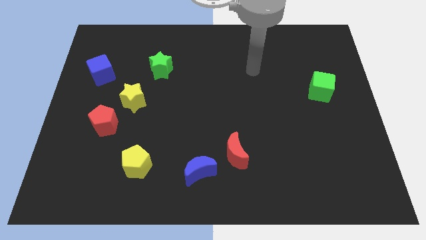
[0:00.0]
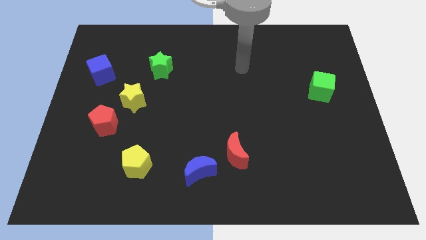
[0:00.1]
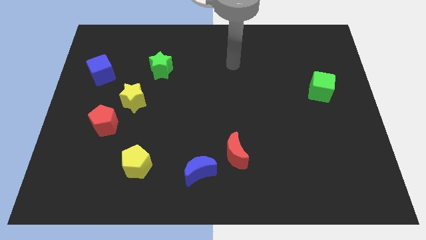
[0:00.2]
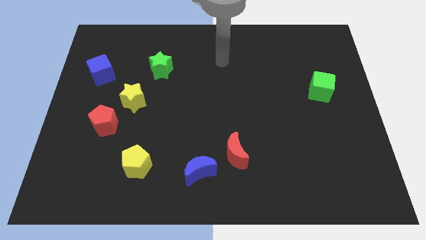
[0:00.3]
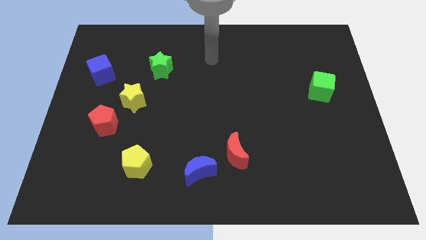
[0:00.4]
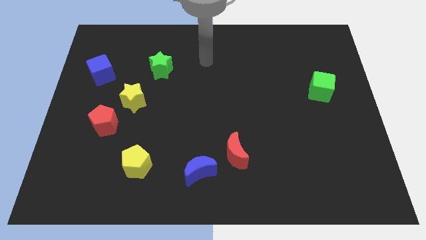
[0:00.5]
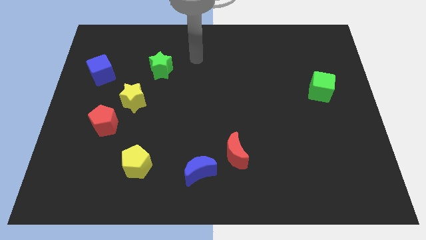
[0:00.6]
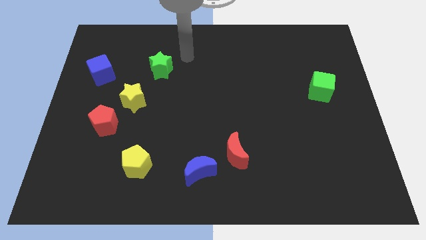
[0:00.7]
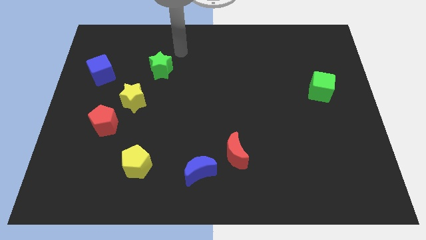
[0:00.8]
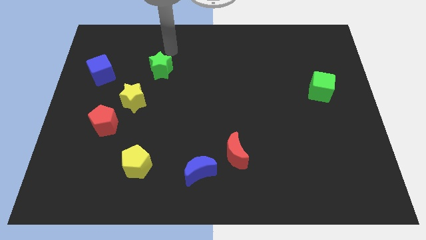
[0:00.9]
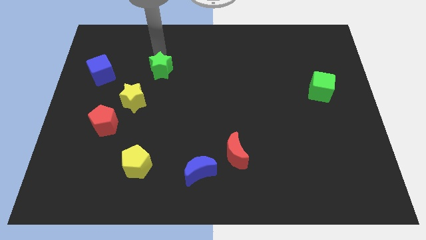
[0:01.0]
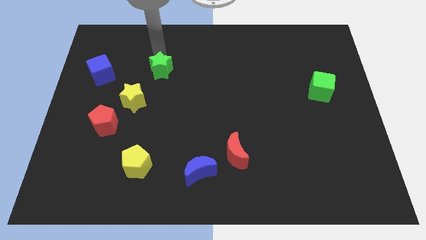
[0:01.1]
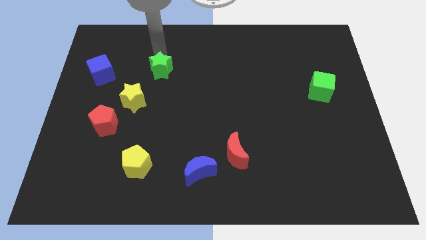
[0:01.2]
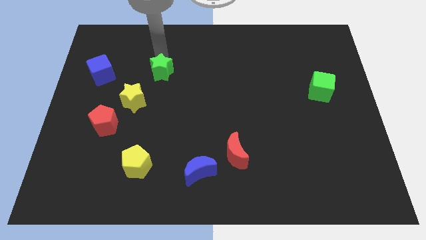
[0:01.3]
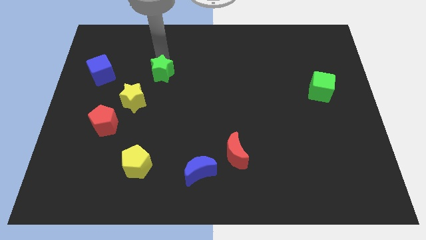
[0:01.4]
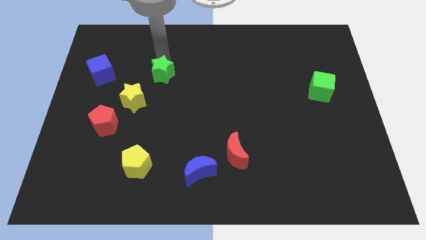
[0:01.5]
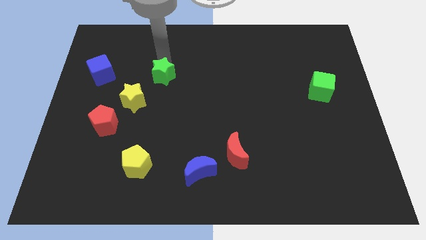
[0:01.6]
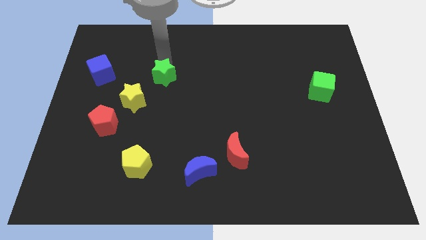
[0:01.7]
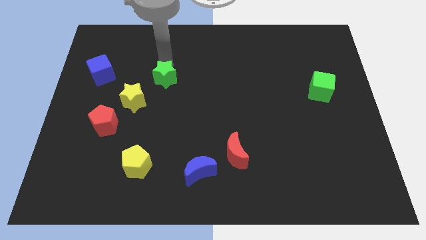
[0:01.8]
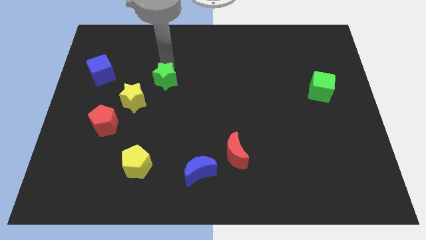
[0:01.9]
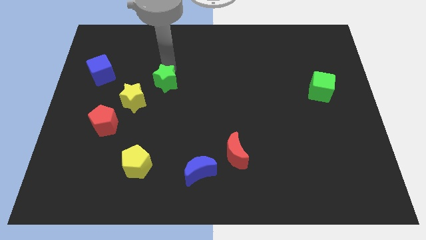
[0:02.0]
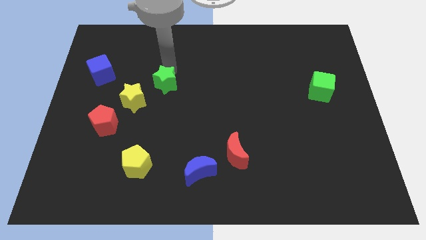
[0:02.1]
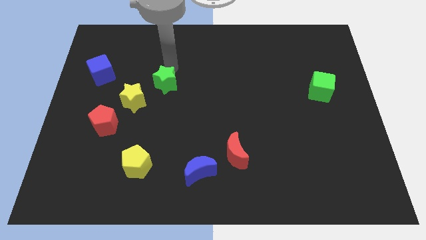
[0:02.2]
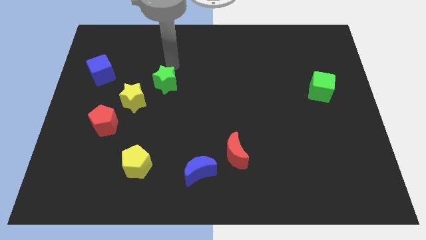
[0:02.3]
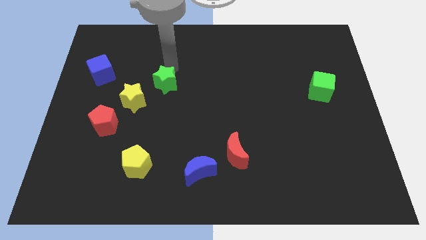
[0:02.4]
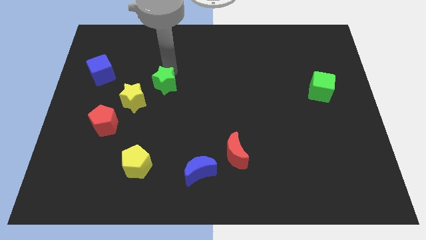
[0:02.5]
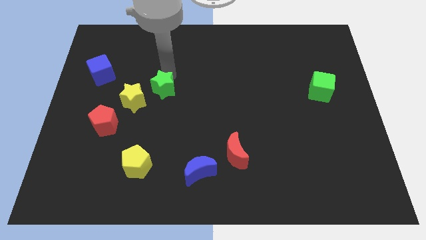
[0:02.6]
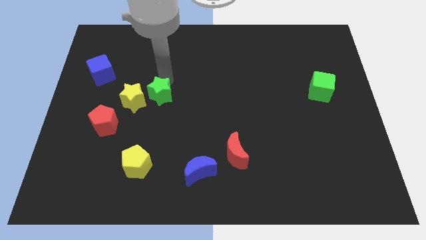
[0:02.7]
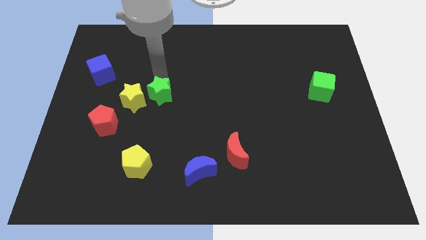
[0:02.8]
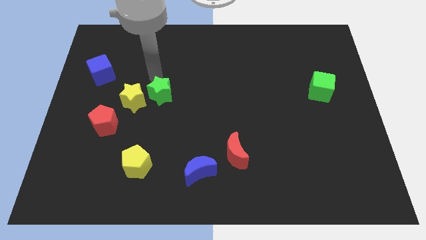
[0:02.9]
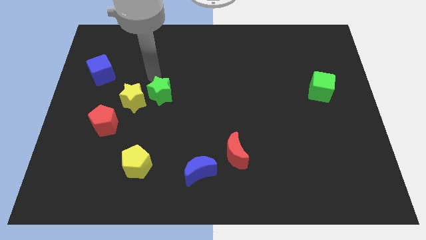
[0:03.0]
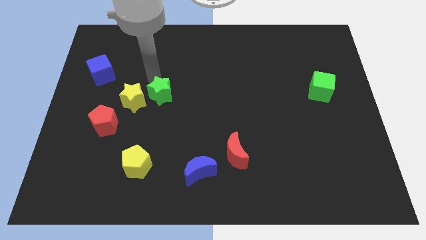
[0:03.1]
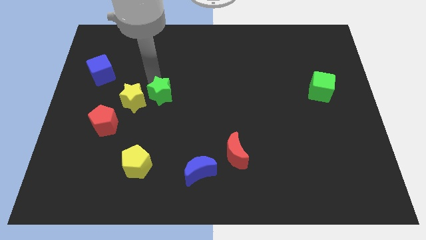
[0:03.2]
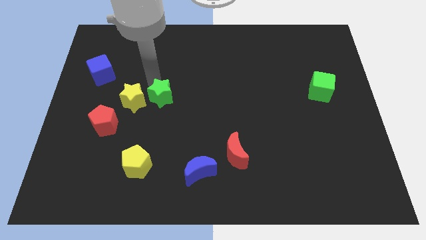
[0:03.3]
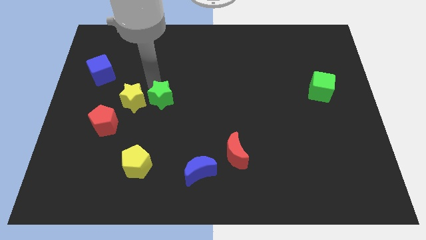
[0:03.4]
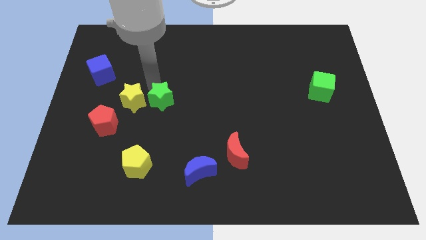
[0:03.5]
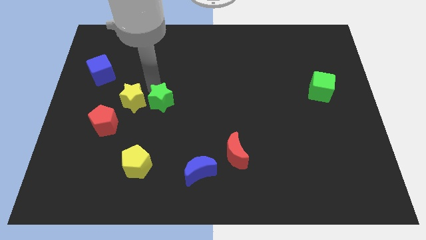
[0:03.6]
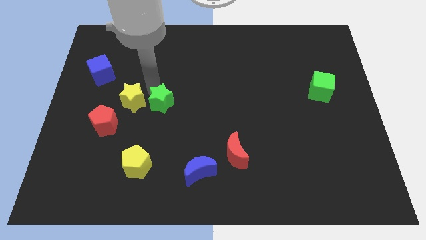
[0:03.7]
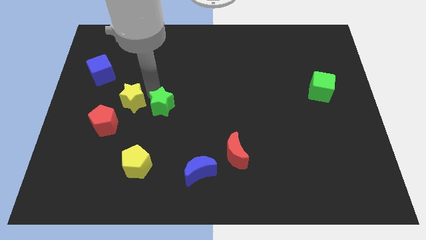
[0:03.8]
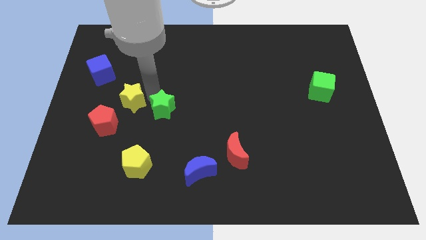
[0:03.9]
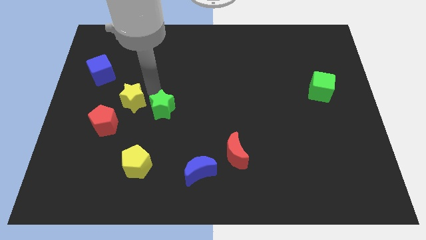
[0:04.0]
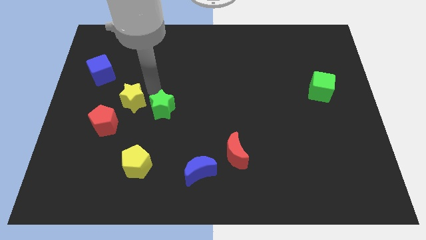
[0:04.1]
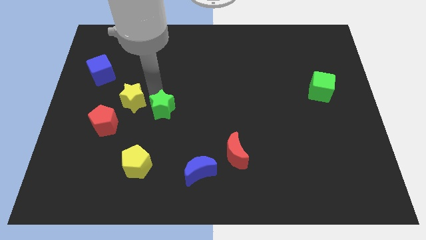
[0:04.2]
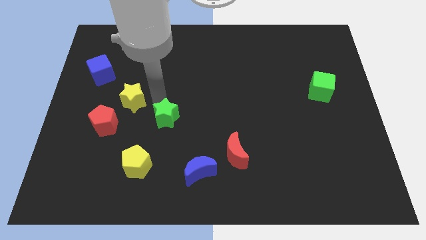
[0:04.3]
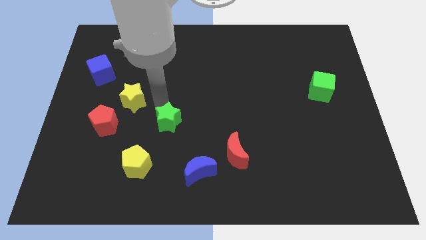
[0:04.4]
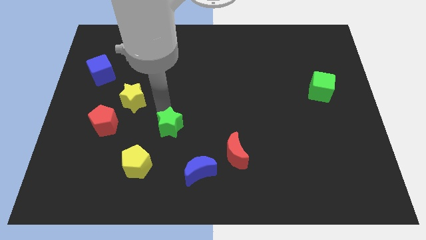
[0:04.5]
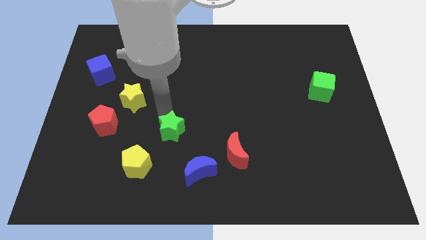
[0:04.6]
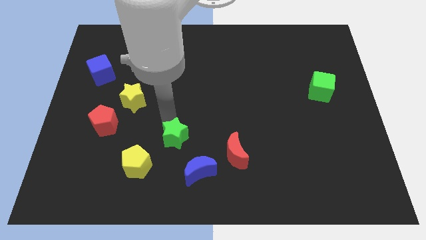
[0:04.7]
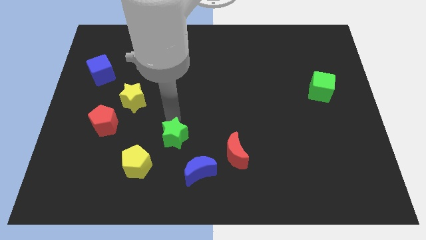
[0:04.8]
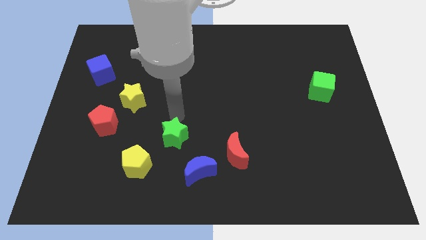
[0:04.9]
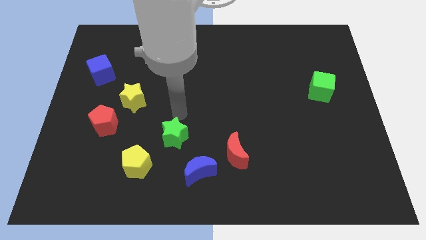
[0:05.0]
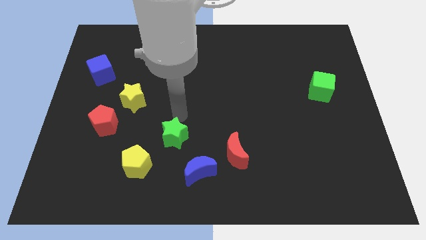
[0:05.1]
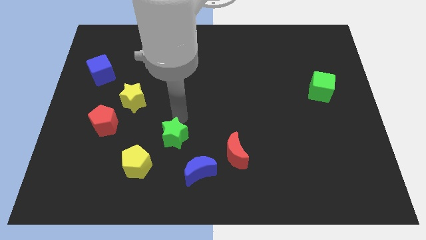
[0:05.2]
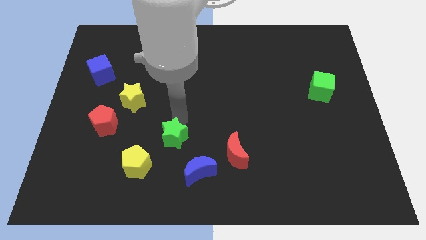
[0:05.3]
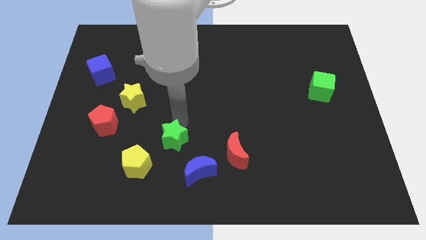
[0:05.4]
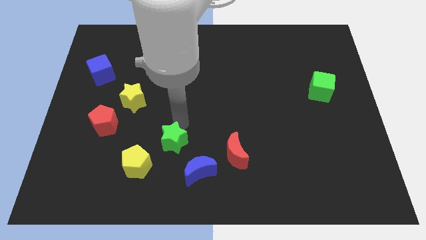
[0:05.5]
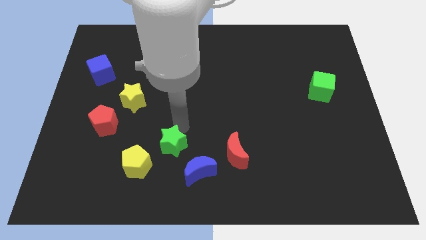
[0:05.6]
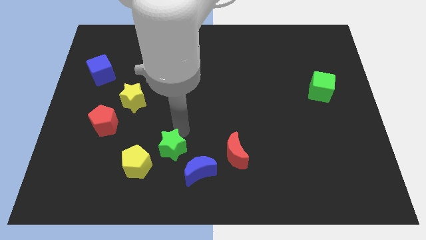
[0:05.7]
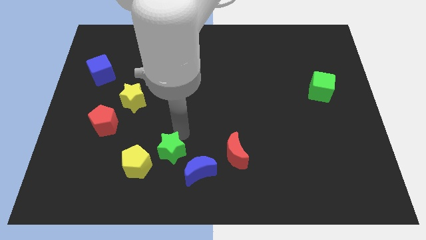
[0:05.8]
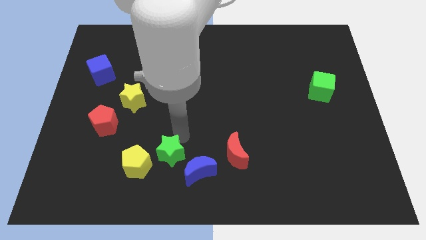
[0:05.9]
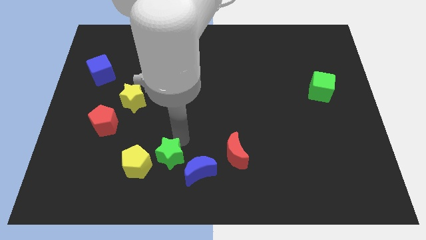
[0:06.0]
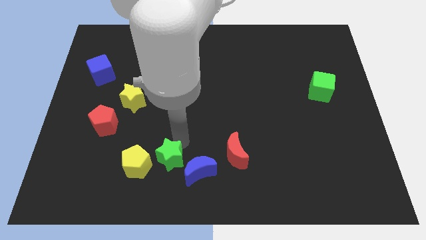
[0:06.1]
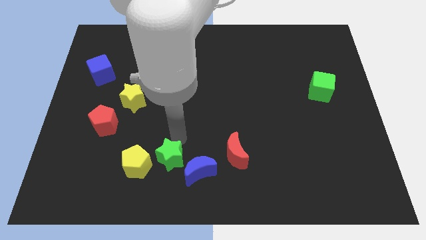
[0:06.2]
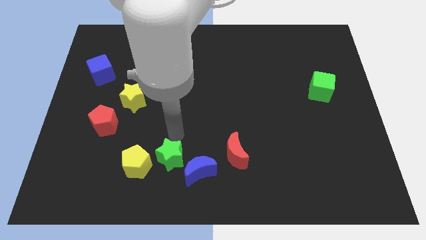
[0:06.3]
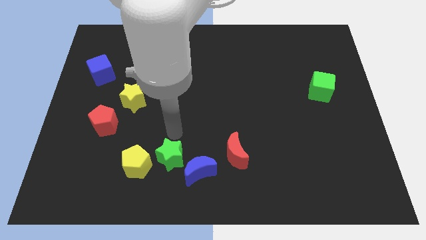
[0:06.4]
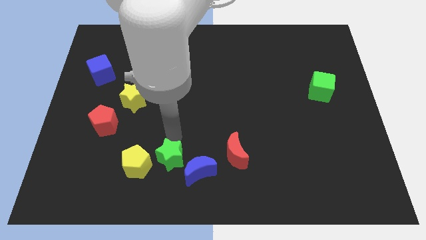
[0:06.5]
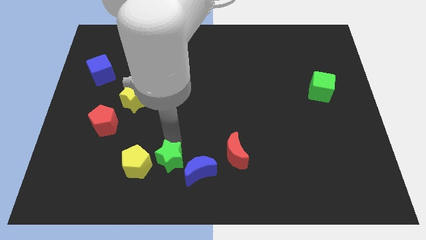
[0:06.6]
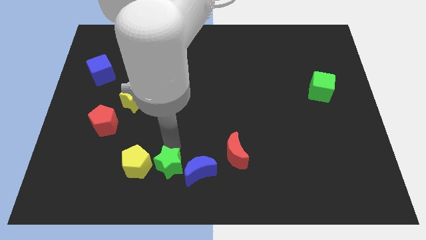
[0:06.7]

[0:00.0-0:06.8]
move the green star to the bottom
